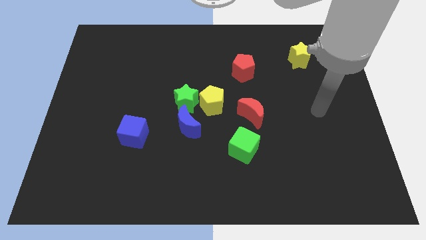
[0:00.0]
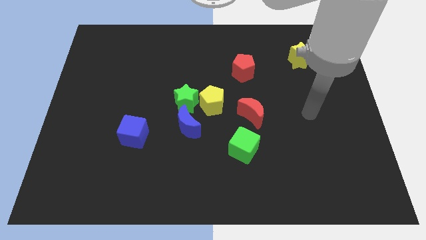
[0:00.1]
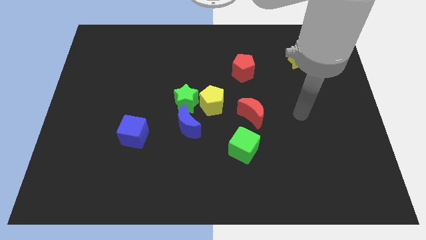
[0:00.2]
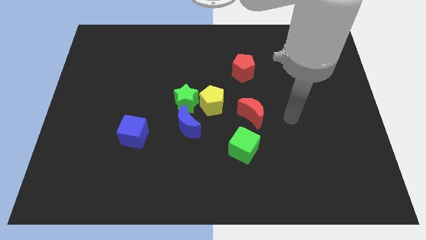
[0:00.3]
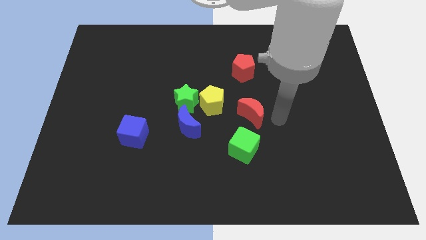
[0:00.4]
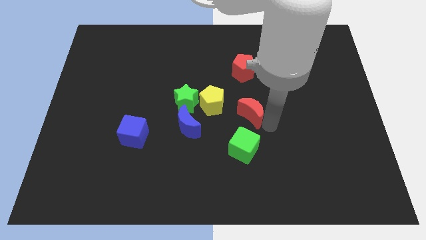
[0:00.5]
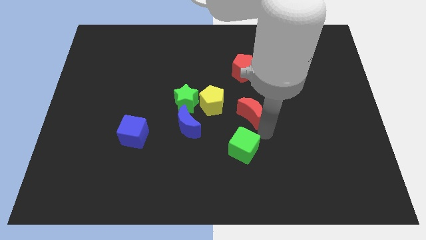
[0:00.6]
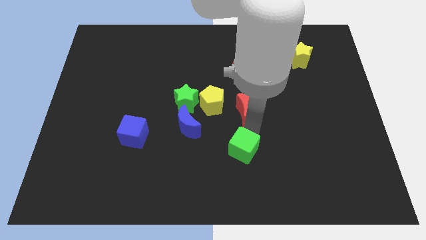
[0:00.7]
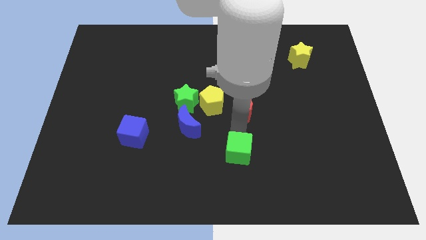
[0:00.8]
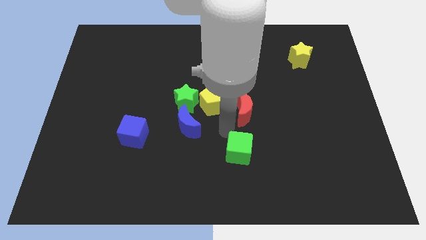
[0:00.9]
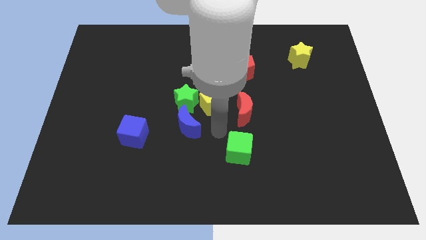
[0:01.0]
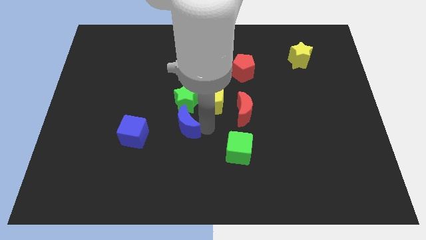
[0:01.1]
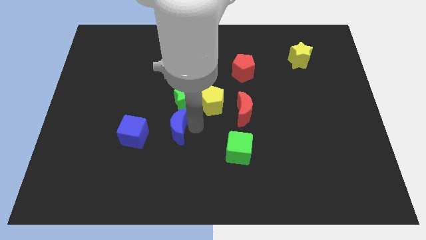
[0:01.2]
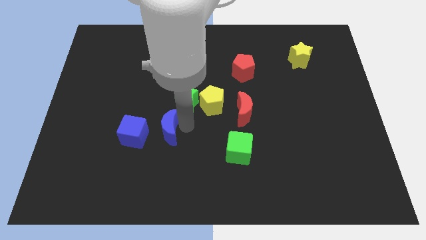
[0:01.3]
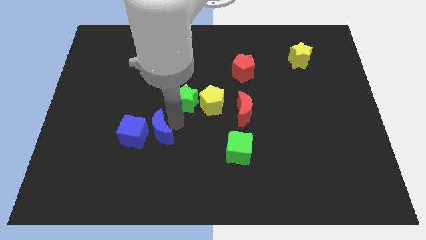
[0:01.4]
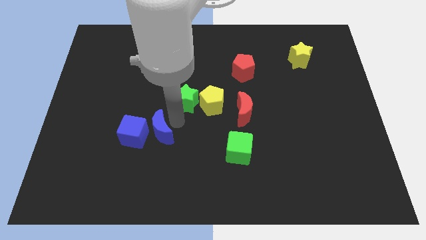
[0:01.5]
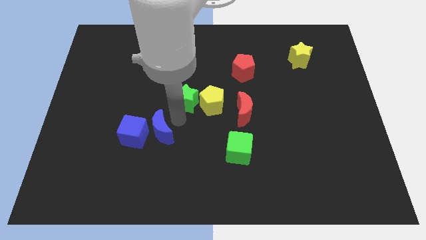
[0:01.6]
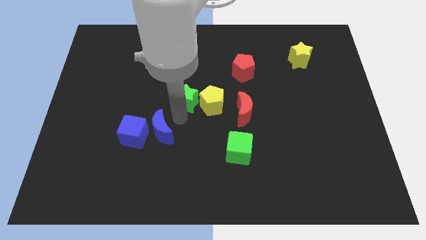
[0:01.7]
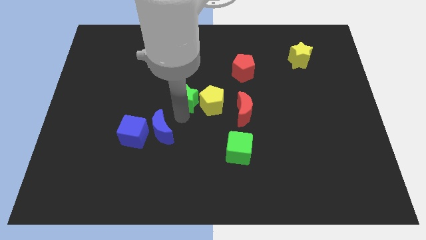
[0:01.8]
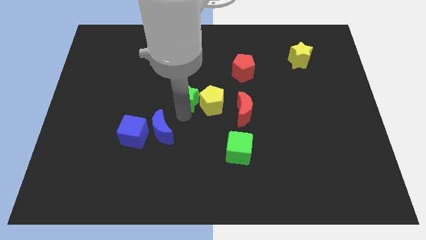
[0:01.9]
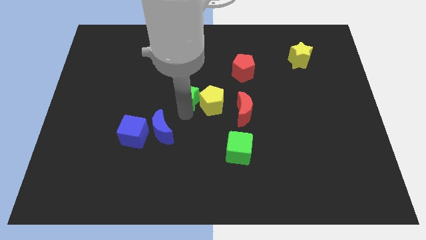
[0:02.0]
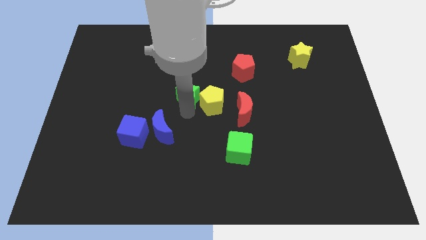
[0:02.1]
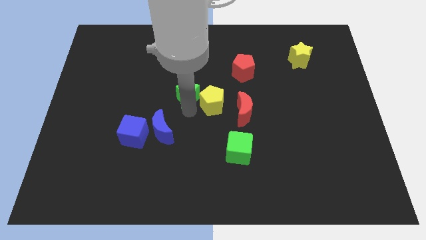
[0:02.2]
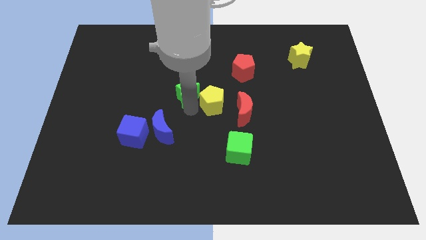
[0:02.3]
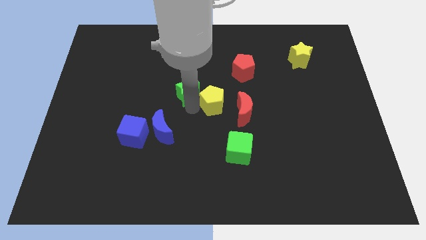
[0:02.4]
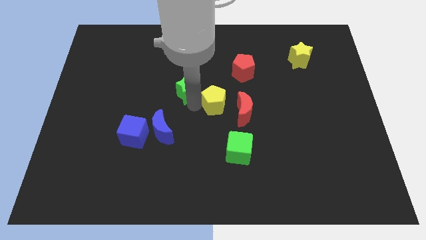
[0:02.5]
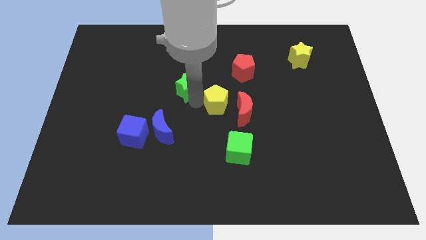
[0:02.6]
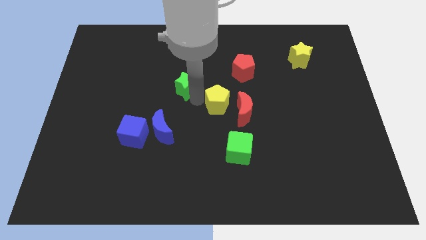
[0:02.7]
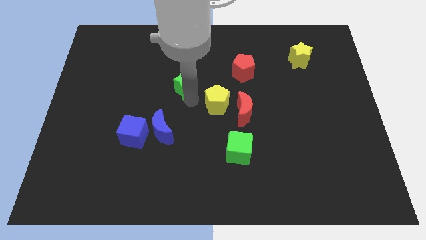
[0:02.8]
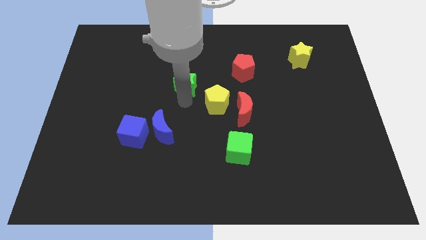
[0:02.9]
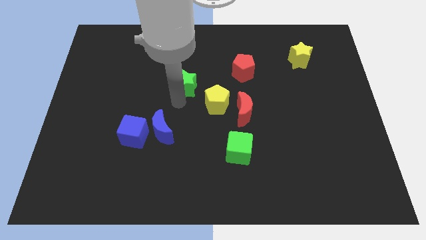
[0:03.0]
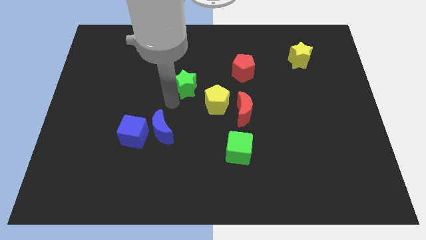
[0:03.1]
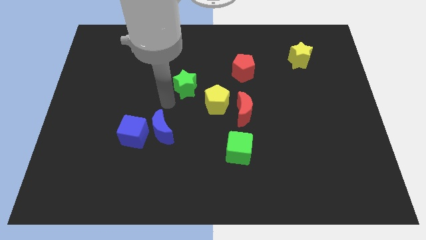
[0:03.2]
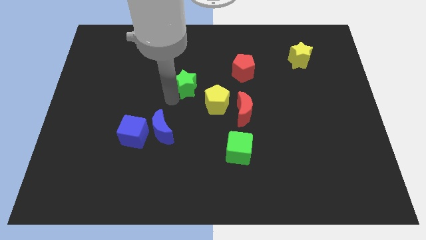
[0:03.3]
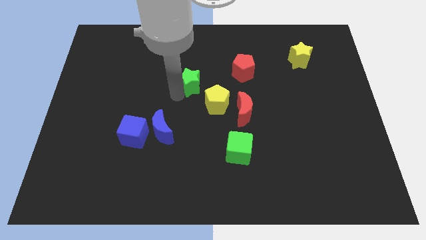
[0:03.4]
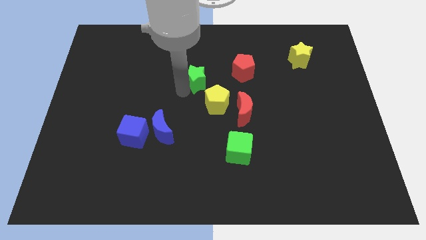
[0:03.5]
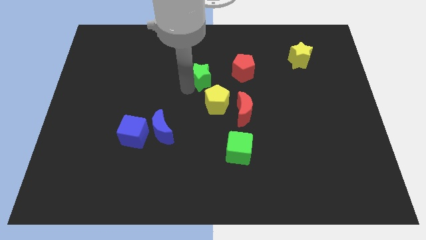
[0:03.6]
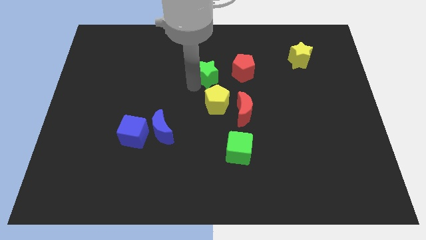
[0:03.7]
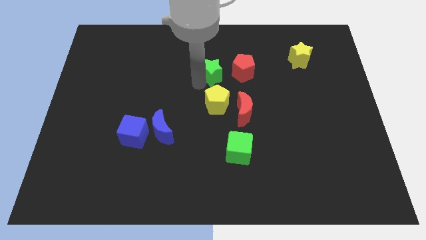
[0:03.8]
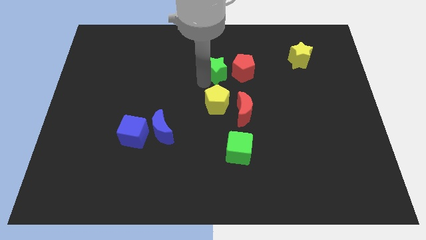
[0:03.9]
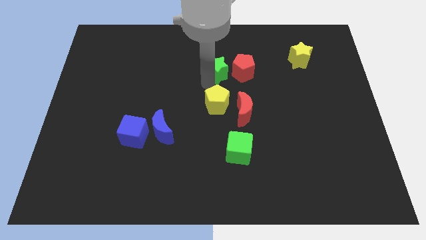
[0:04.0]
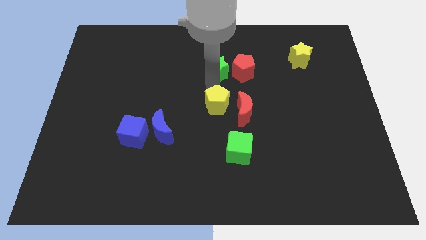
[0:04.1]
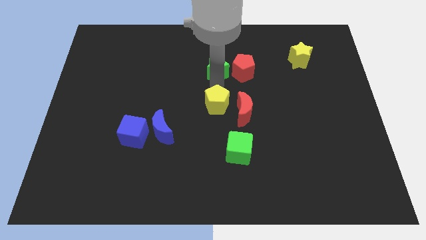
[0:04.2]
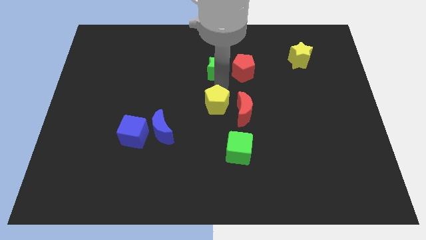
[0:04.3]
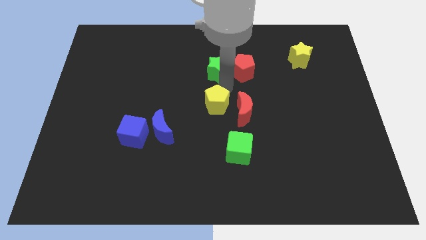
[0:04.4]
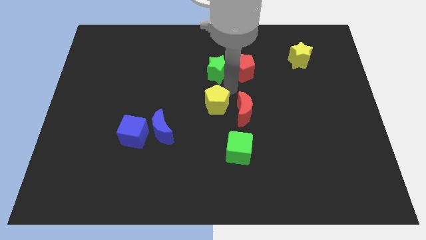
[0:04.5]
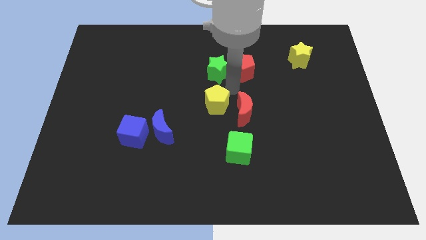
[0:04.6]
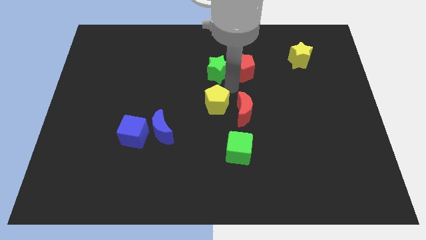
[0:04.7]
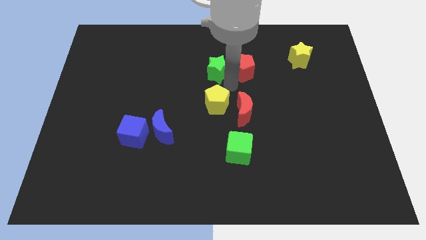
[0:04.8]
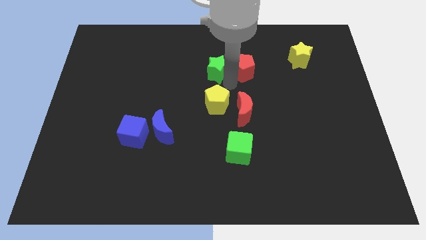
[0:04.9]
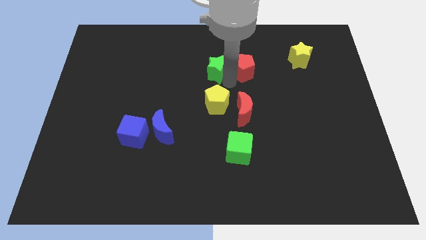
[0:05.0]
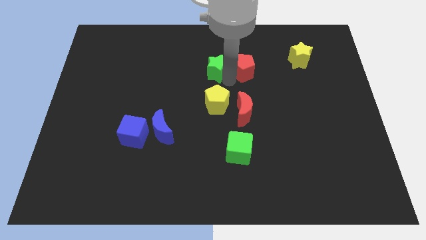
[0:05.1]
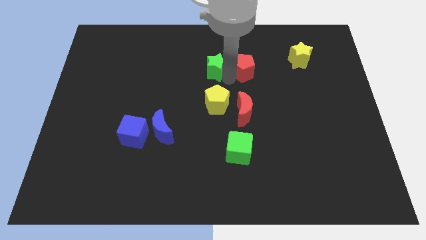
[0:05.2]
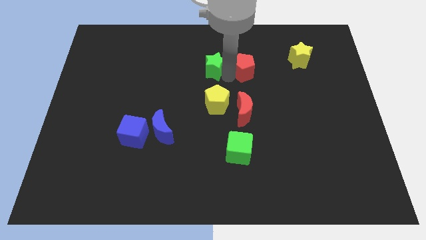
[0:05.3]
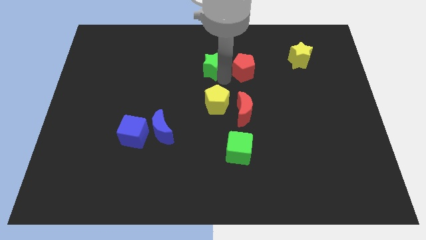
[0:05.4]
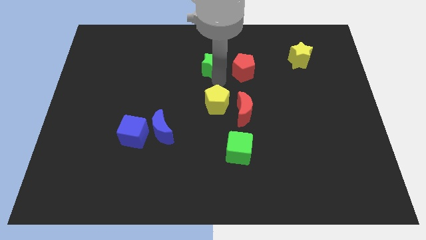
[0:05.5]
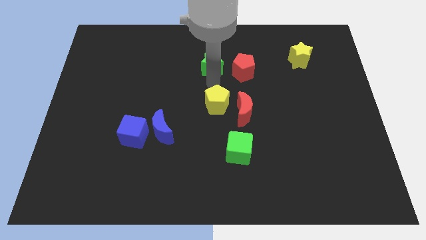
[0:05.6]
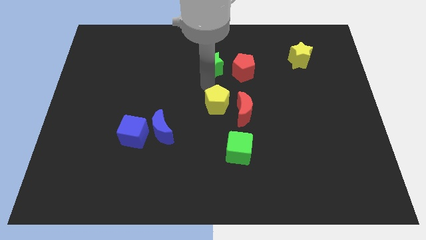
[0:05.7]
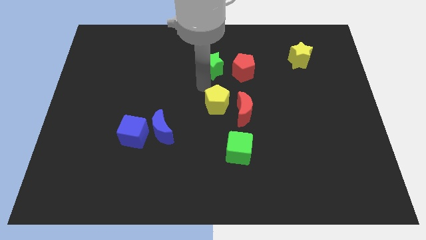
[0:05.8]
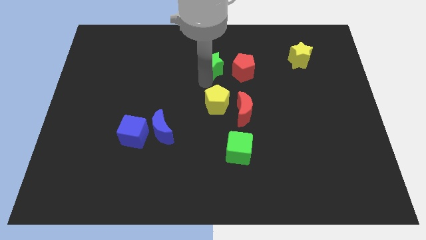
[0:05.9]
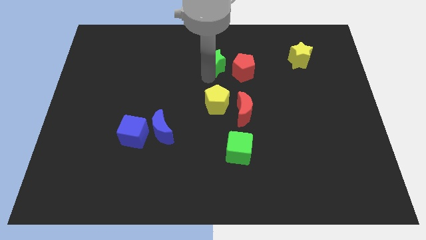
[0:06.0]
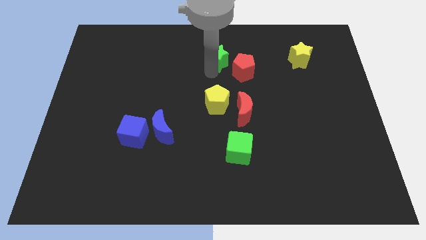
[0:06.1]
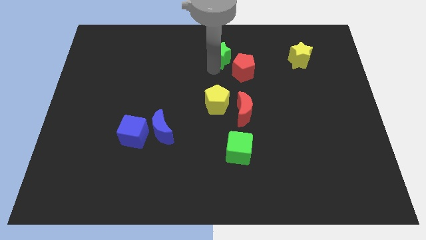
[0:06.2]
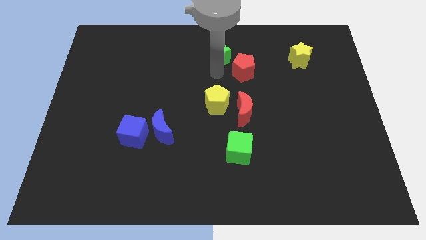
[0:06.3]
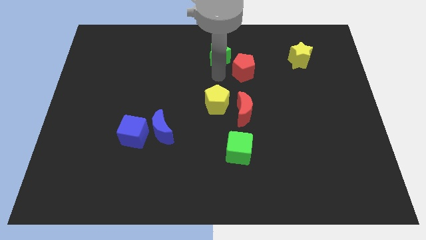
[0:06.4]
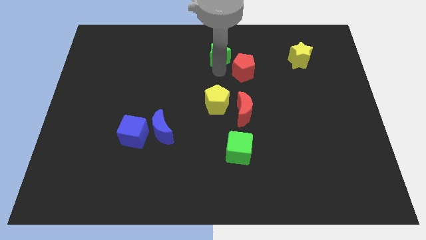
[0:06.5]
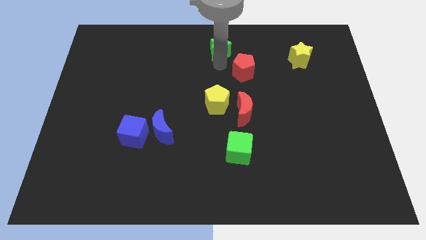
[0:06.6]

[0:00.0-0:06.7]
push the green star to the towards your base
